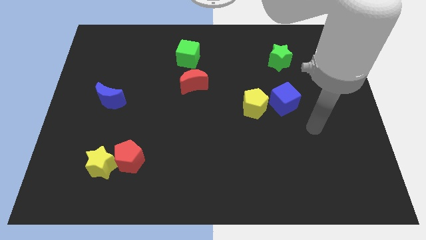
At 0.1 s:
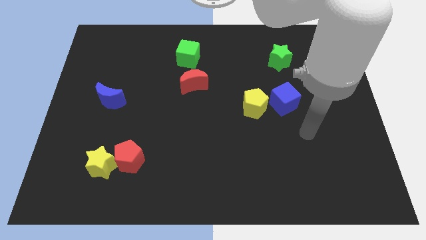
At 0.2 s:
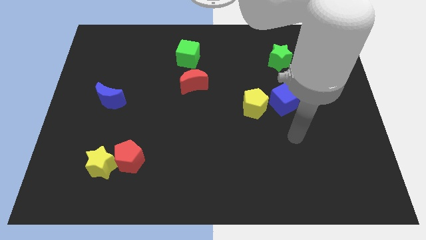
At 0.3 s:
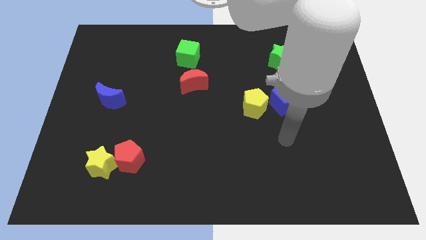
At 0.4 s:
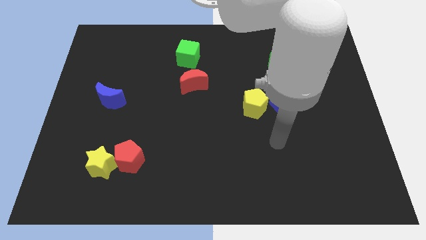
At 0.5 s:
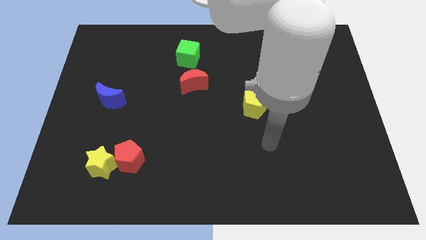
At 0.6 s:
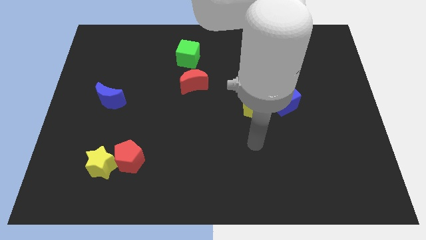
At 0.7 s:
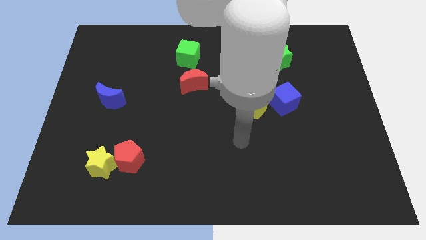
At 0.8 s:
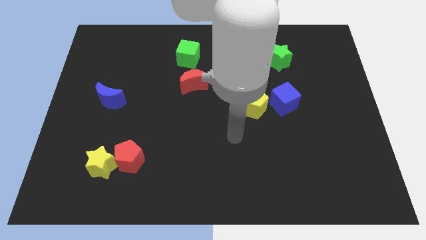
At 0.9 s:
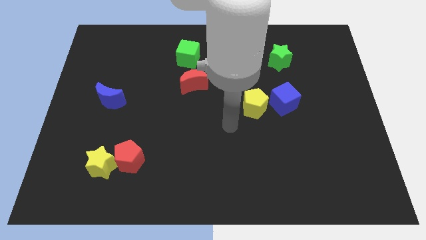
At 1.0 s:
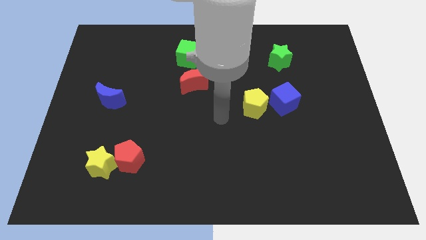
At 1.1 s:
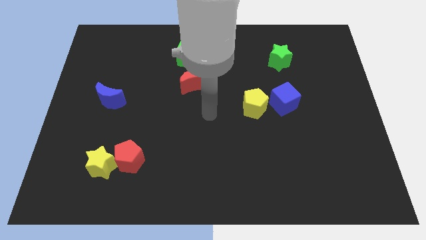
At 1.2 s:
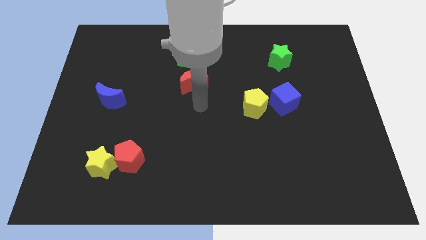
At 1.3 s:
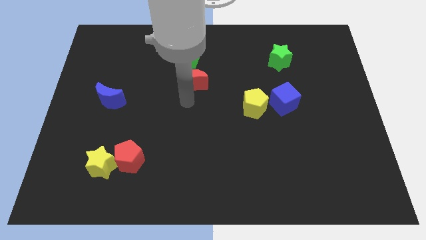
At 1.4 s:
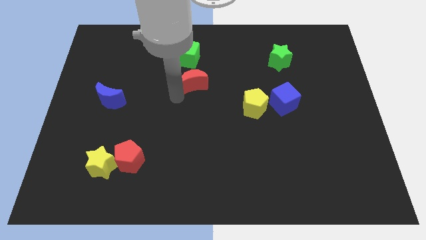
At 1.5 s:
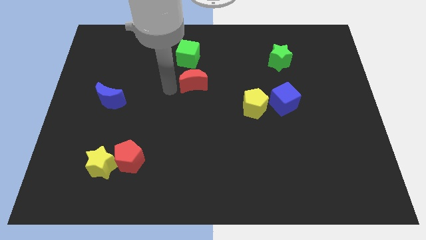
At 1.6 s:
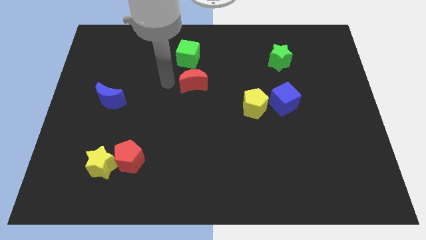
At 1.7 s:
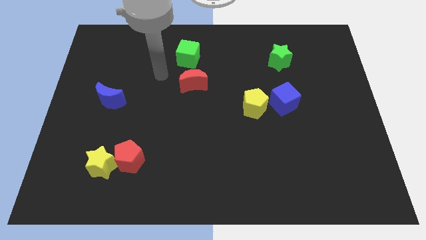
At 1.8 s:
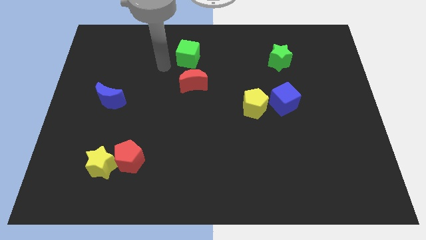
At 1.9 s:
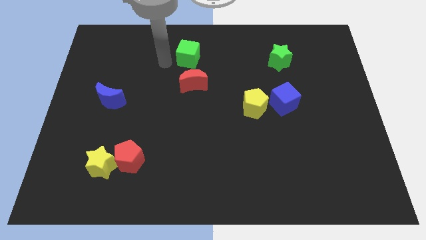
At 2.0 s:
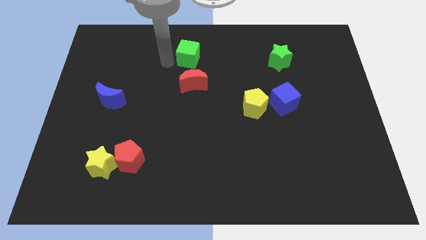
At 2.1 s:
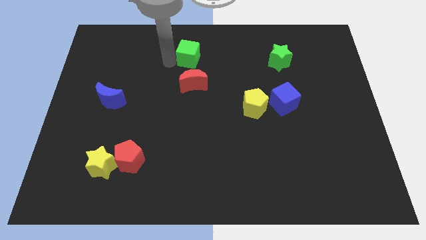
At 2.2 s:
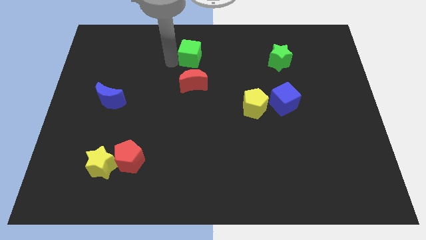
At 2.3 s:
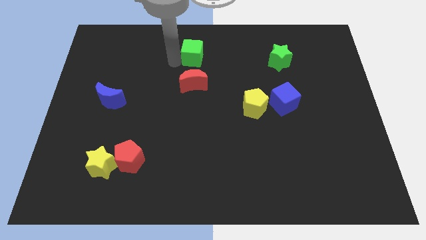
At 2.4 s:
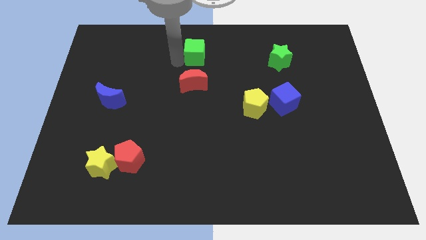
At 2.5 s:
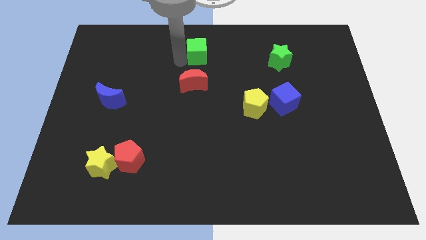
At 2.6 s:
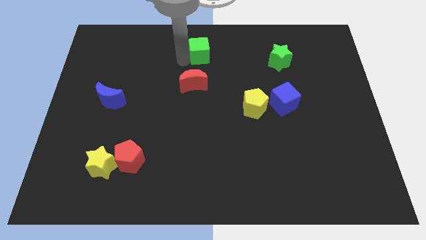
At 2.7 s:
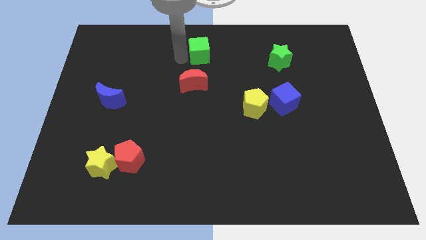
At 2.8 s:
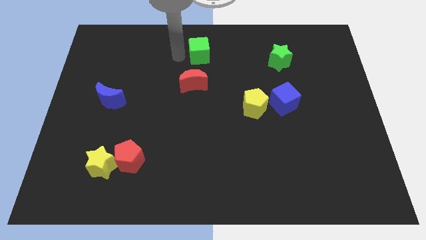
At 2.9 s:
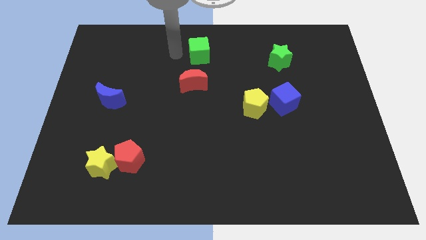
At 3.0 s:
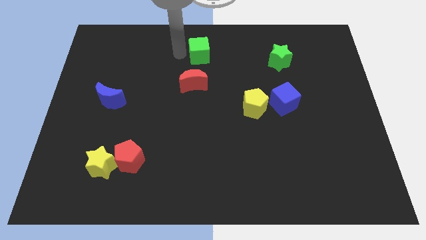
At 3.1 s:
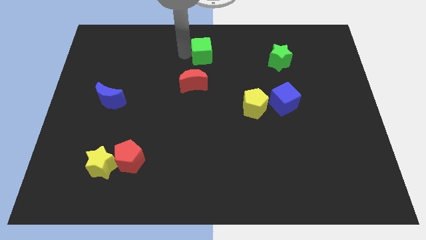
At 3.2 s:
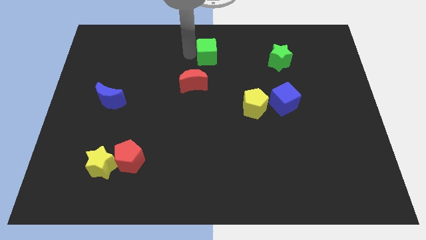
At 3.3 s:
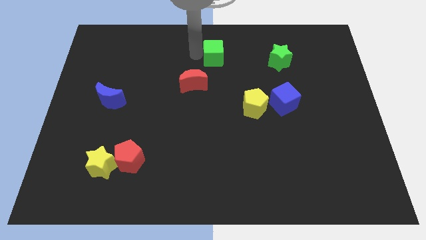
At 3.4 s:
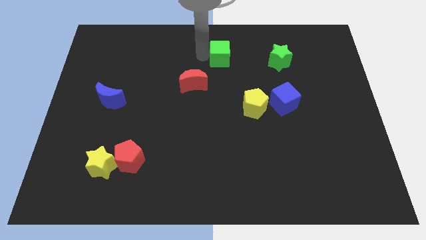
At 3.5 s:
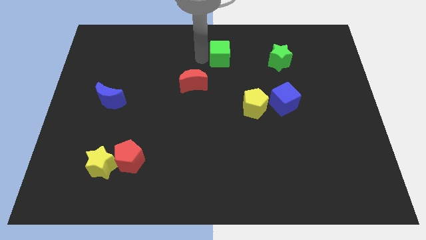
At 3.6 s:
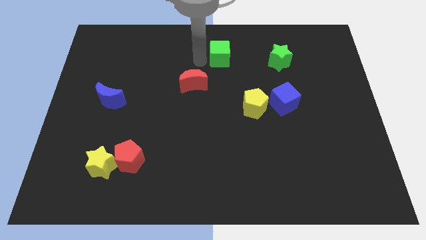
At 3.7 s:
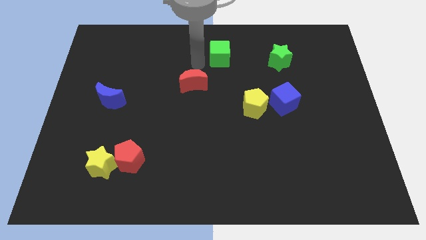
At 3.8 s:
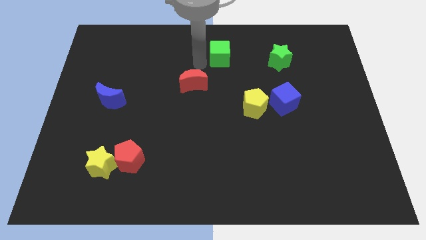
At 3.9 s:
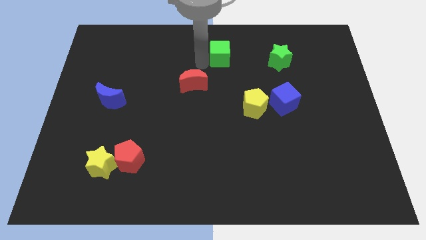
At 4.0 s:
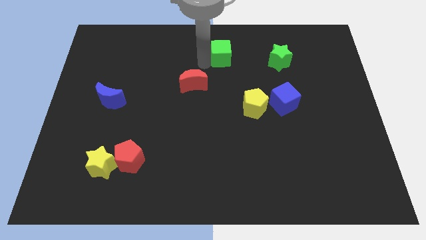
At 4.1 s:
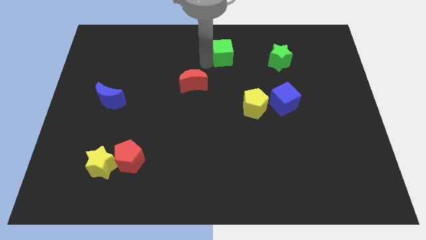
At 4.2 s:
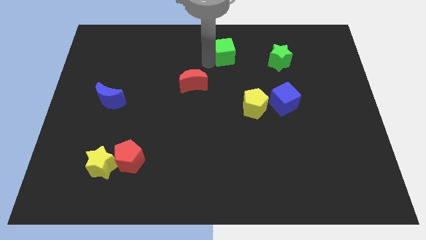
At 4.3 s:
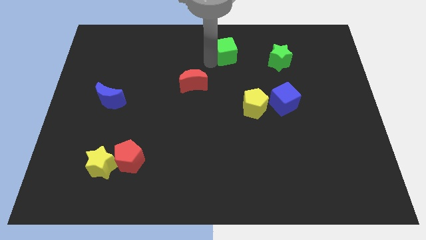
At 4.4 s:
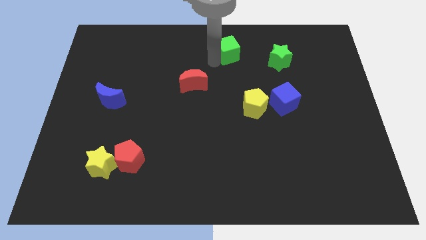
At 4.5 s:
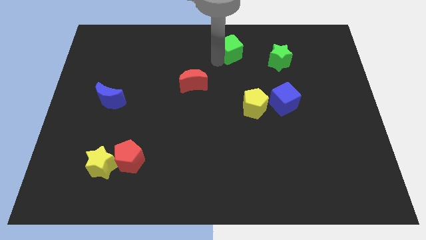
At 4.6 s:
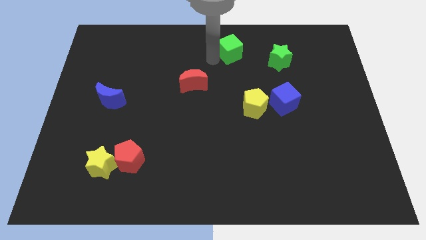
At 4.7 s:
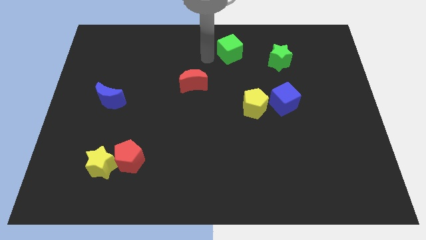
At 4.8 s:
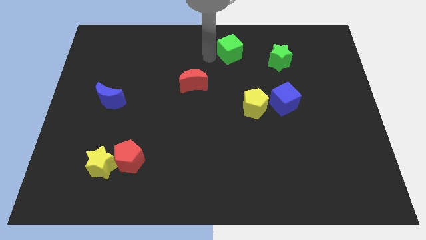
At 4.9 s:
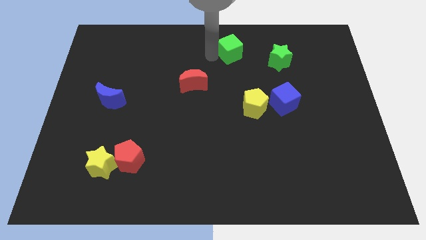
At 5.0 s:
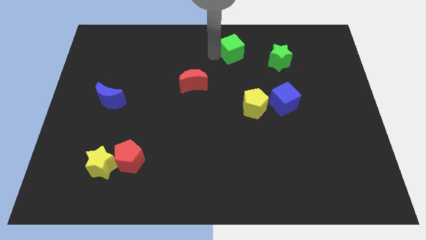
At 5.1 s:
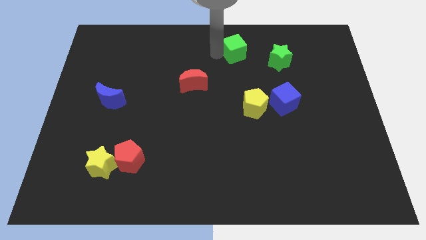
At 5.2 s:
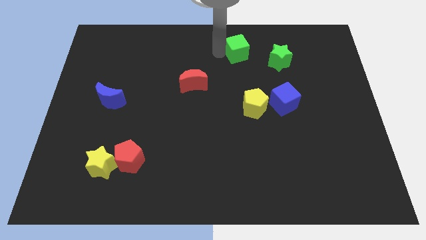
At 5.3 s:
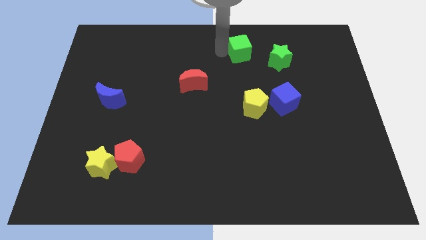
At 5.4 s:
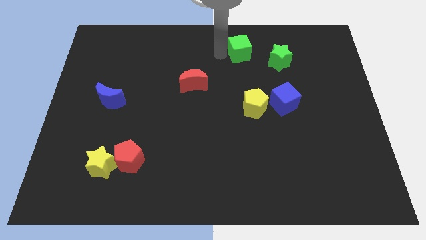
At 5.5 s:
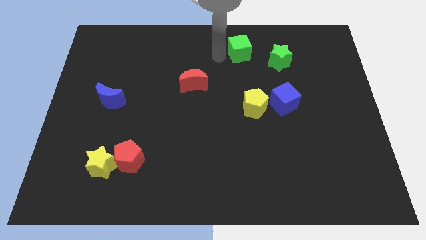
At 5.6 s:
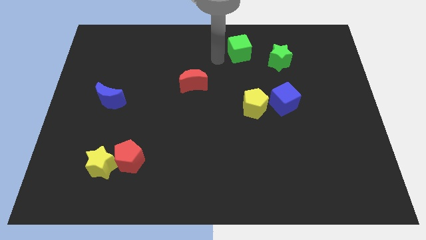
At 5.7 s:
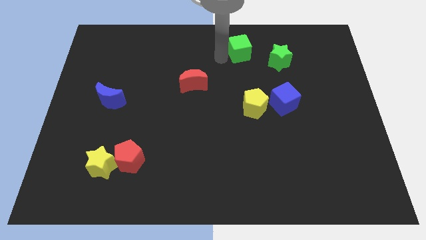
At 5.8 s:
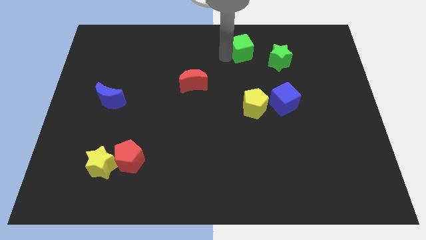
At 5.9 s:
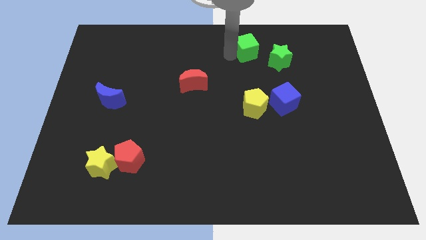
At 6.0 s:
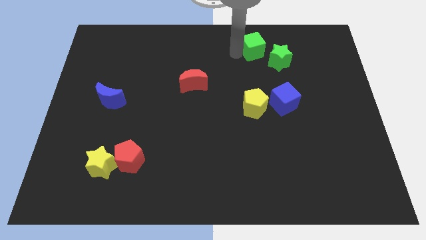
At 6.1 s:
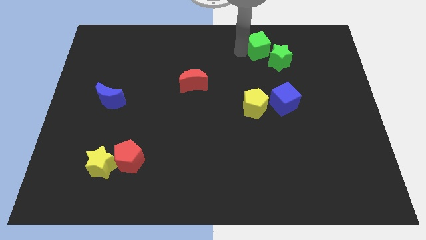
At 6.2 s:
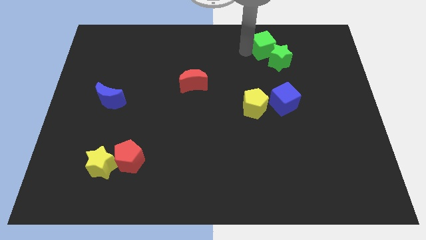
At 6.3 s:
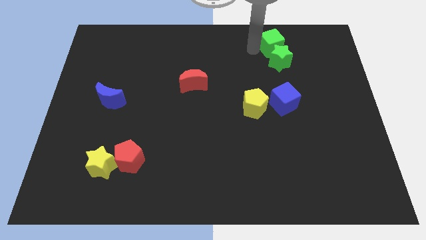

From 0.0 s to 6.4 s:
move the green cube to the right

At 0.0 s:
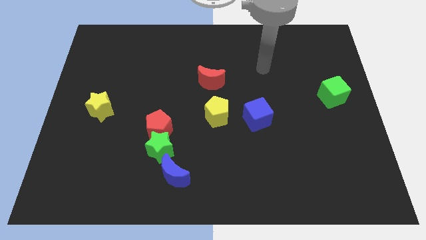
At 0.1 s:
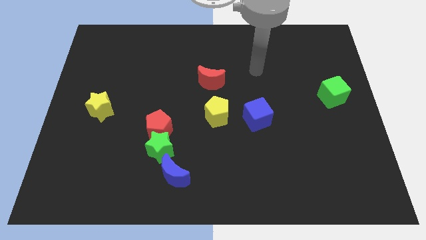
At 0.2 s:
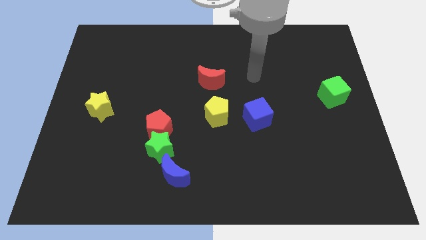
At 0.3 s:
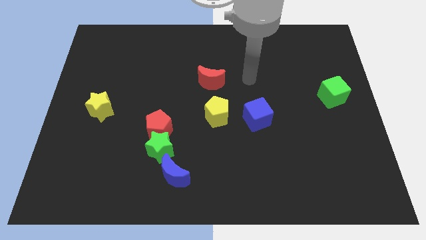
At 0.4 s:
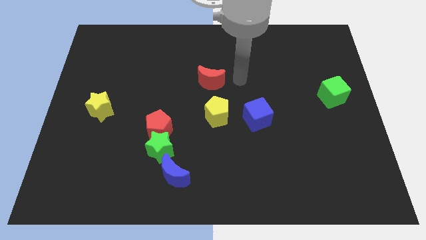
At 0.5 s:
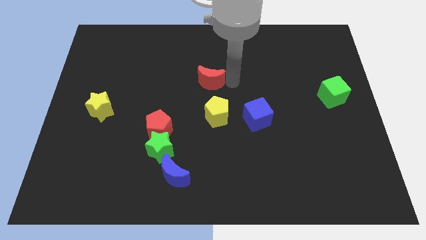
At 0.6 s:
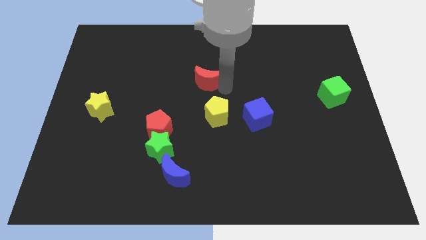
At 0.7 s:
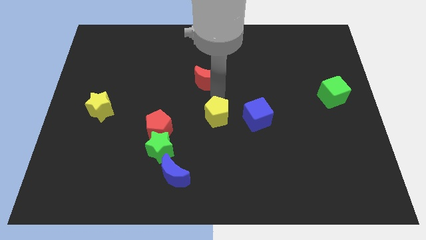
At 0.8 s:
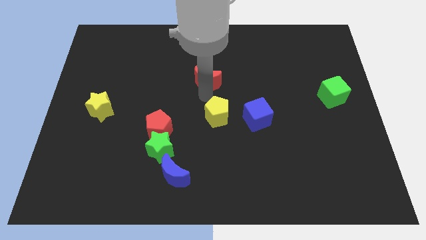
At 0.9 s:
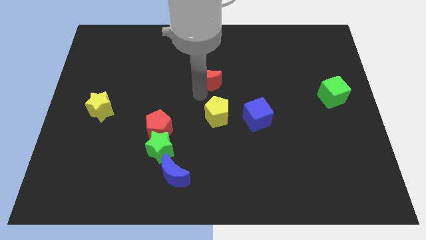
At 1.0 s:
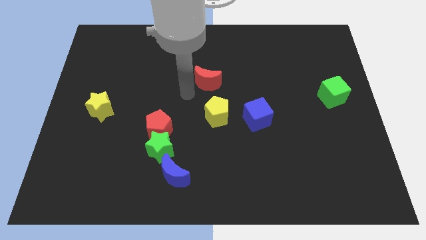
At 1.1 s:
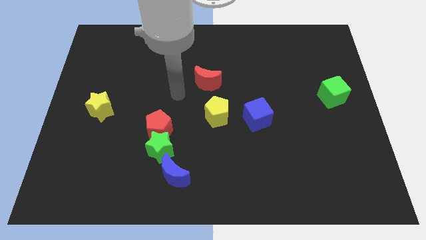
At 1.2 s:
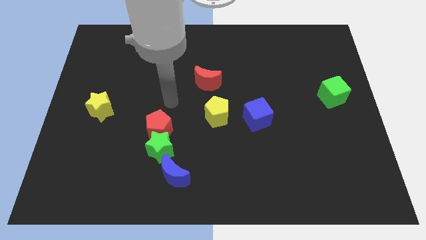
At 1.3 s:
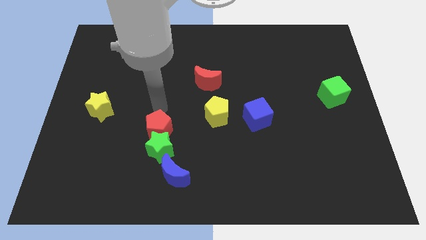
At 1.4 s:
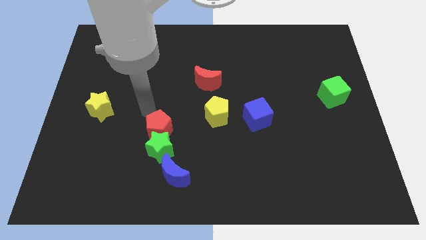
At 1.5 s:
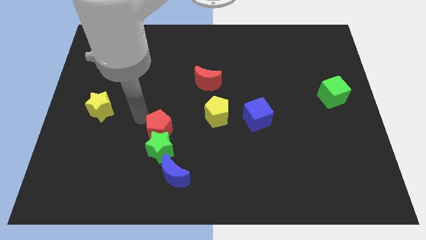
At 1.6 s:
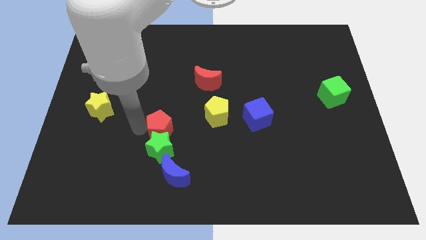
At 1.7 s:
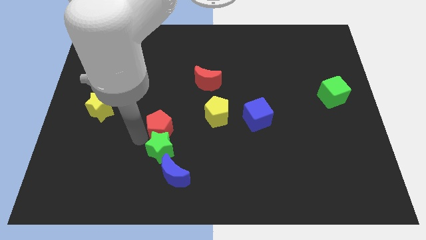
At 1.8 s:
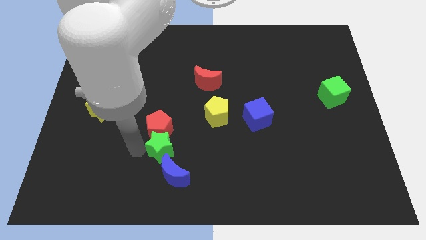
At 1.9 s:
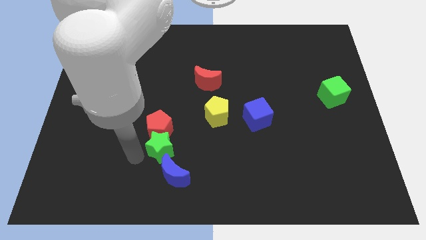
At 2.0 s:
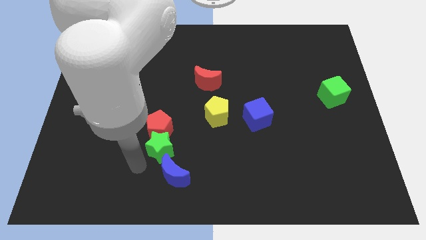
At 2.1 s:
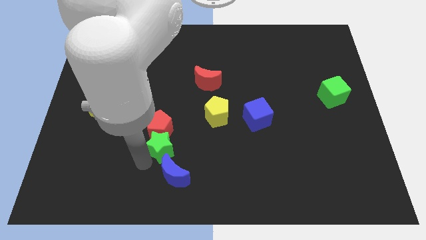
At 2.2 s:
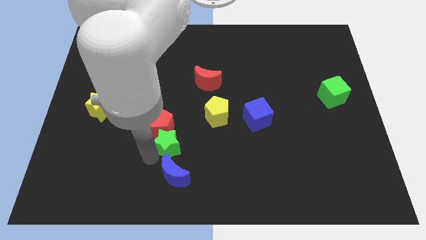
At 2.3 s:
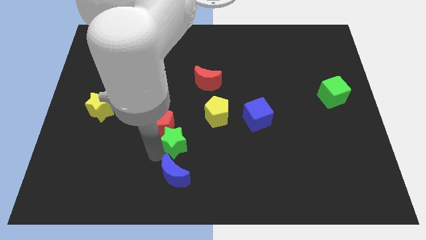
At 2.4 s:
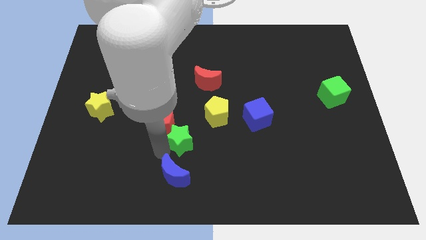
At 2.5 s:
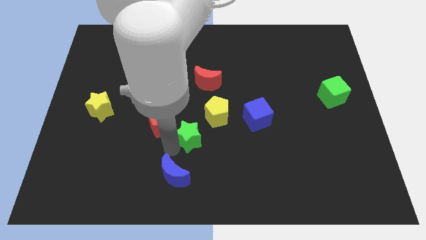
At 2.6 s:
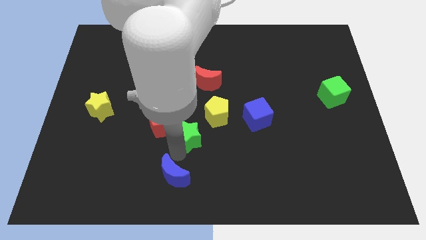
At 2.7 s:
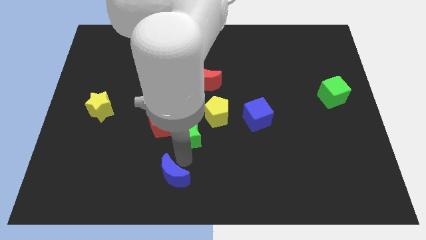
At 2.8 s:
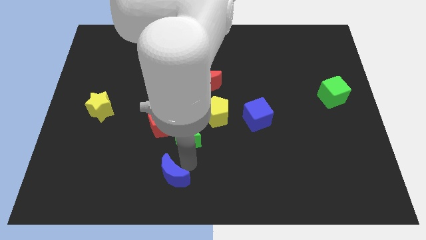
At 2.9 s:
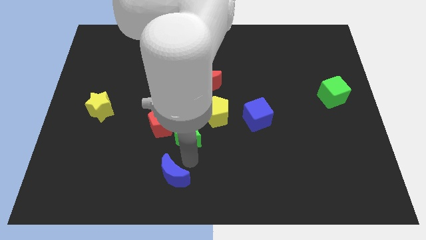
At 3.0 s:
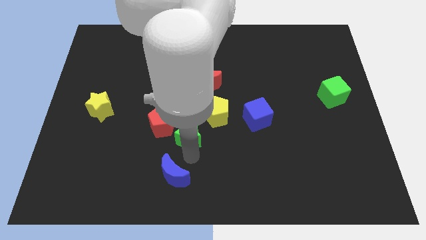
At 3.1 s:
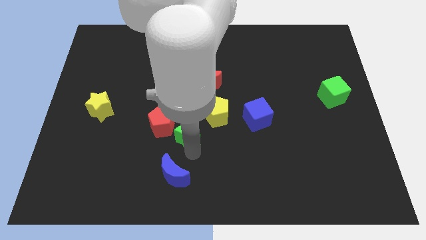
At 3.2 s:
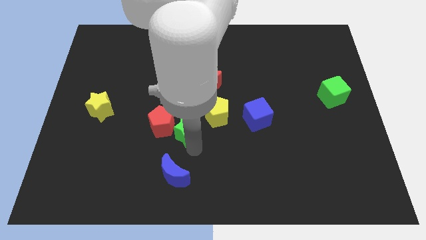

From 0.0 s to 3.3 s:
push the green star up and then to the right a little
